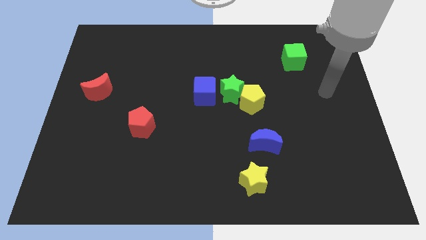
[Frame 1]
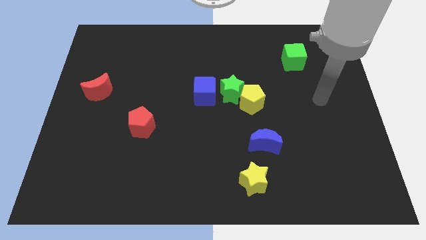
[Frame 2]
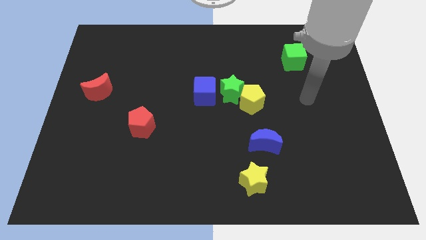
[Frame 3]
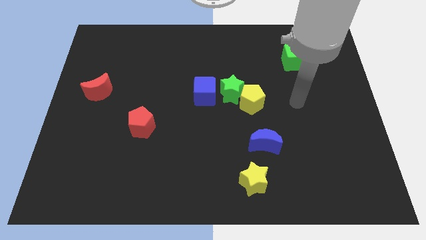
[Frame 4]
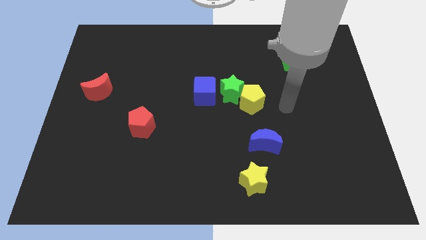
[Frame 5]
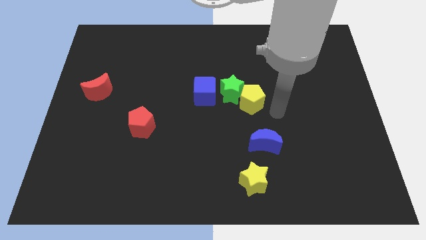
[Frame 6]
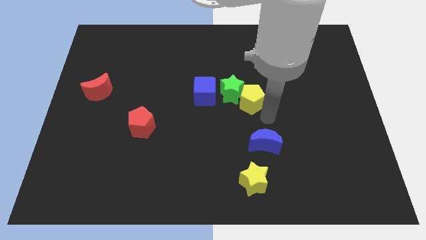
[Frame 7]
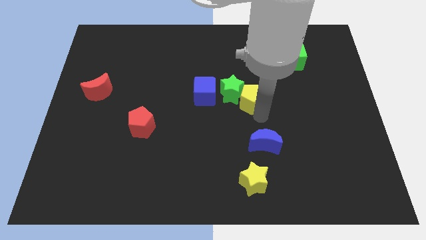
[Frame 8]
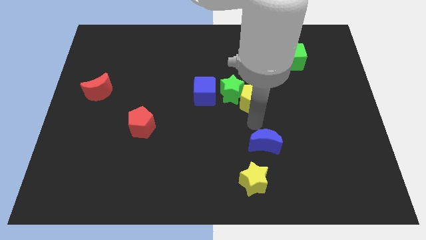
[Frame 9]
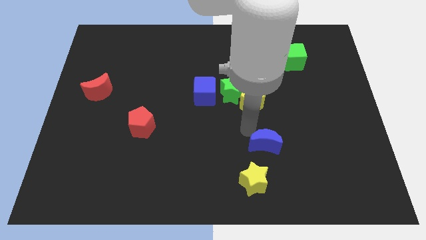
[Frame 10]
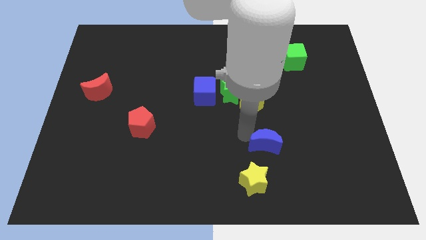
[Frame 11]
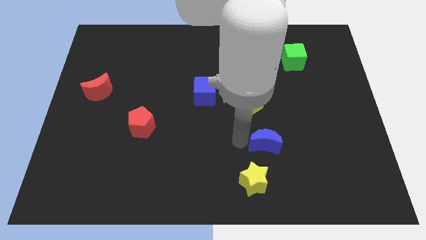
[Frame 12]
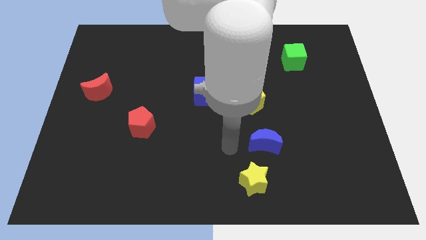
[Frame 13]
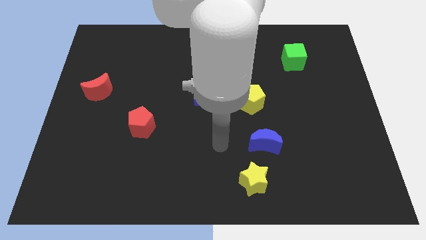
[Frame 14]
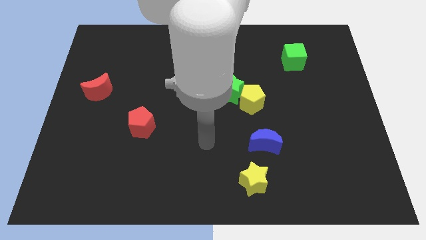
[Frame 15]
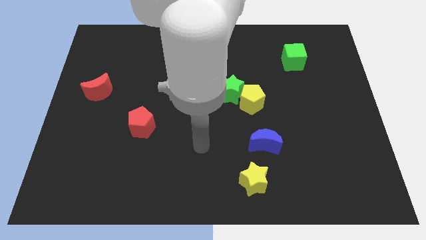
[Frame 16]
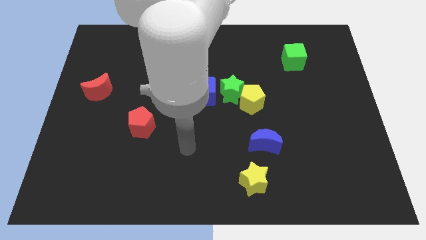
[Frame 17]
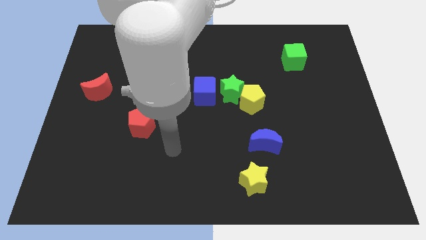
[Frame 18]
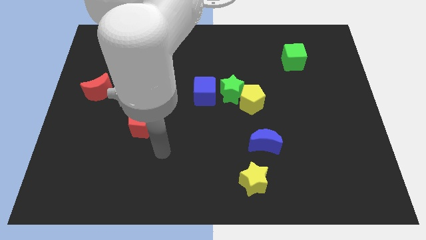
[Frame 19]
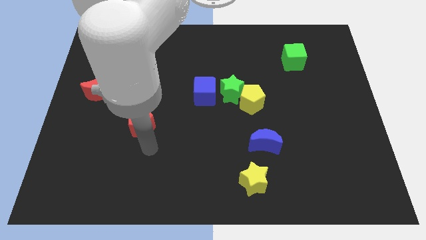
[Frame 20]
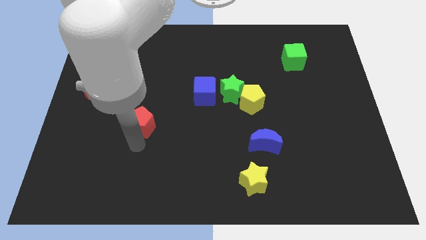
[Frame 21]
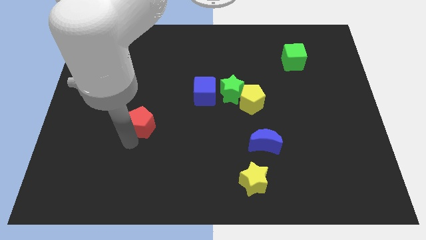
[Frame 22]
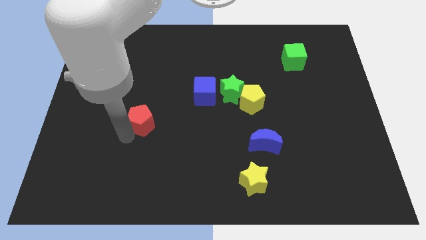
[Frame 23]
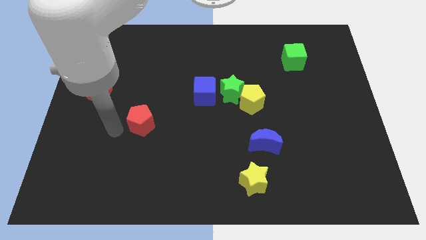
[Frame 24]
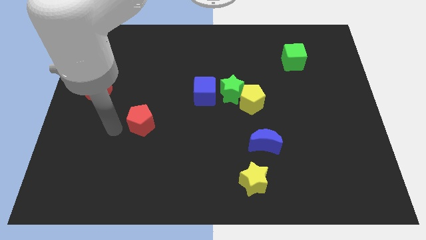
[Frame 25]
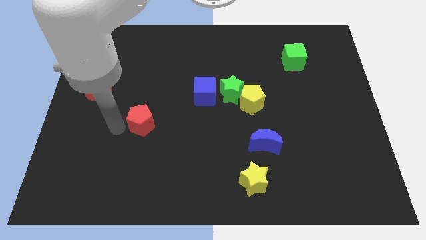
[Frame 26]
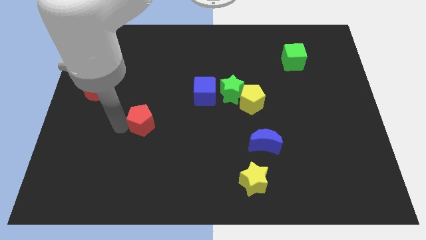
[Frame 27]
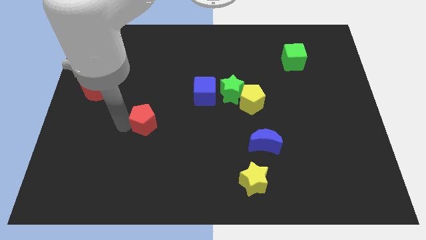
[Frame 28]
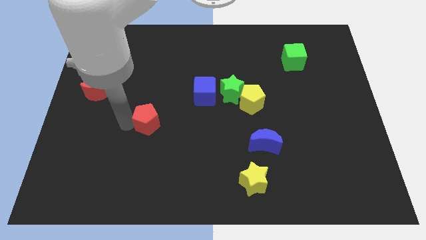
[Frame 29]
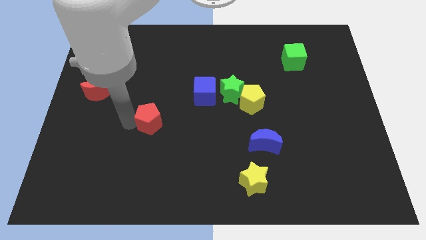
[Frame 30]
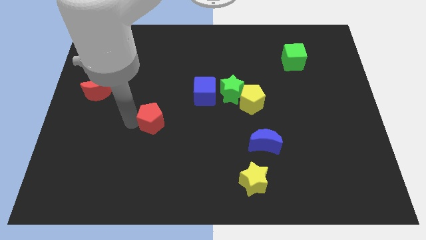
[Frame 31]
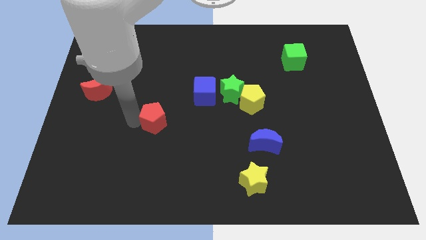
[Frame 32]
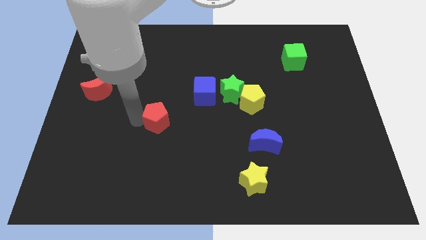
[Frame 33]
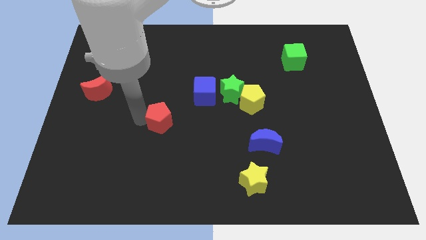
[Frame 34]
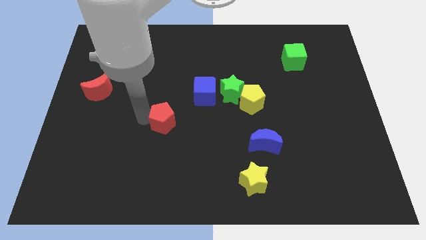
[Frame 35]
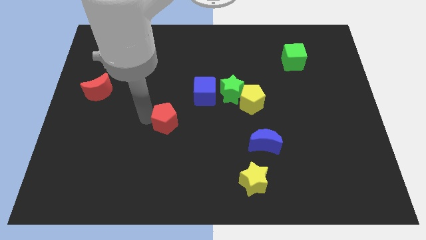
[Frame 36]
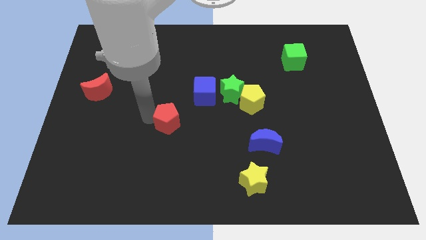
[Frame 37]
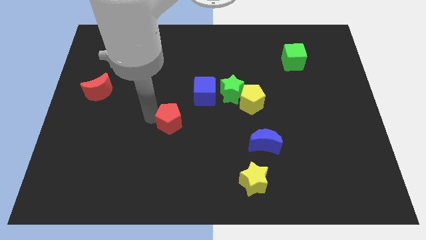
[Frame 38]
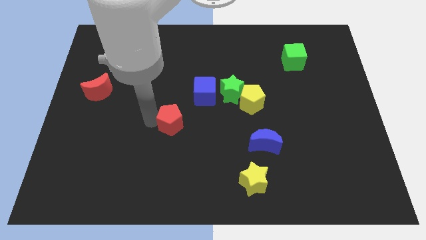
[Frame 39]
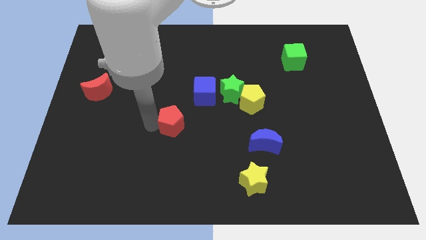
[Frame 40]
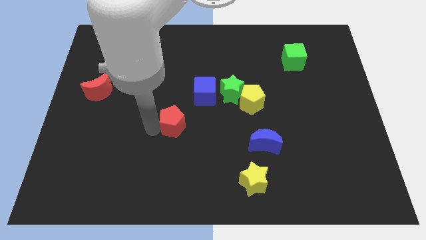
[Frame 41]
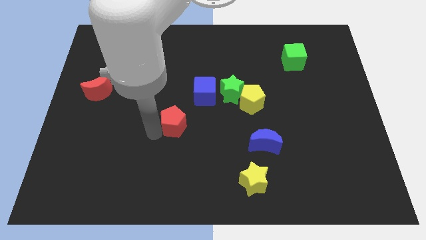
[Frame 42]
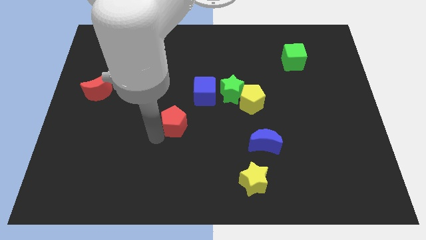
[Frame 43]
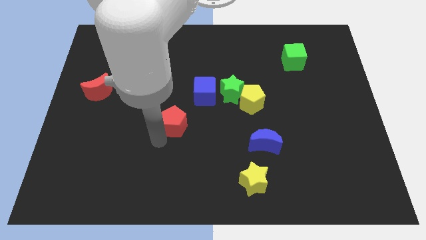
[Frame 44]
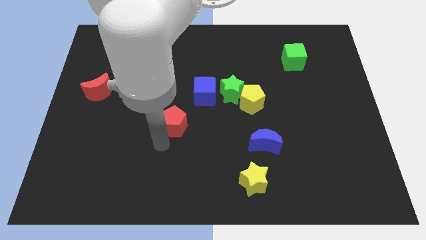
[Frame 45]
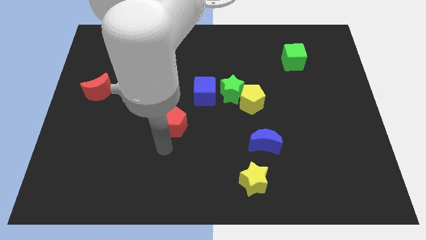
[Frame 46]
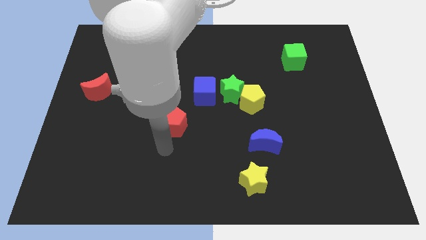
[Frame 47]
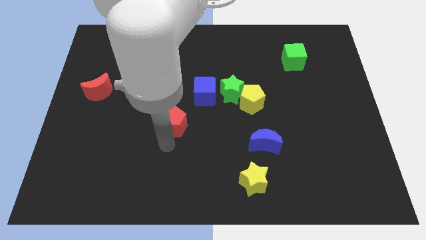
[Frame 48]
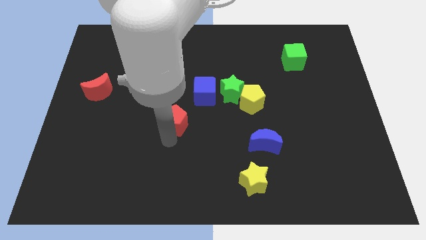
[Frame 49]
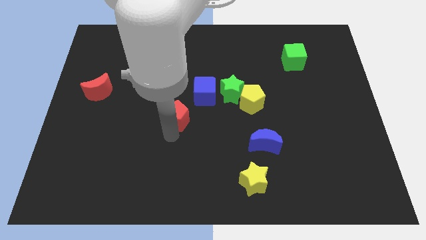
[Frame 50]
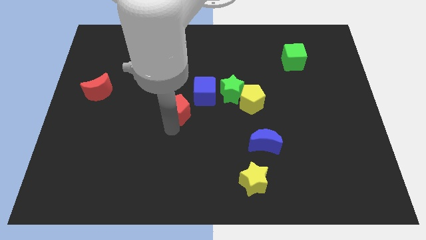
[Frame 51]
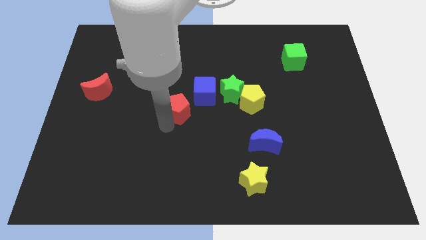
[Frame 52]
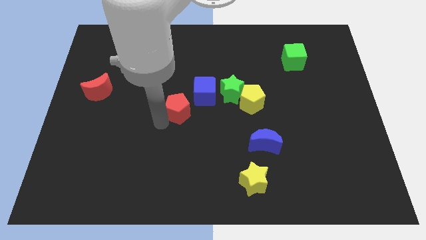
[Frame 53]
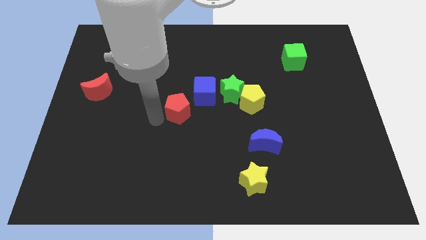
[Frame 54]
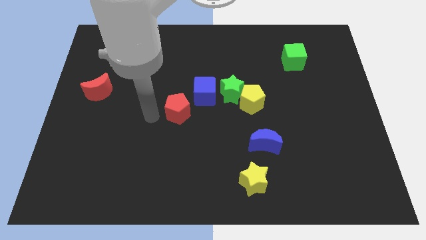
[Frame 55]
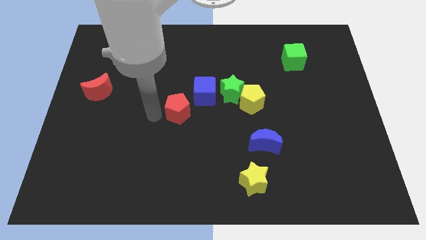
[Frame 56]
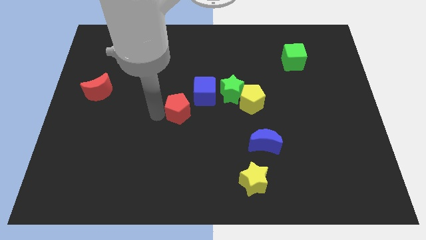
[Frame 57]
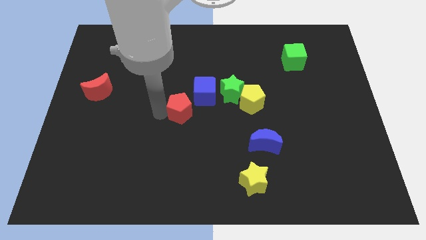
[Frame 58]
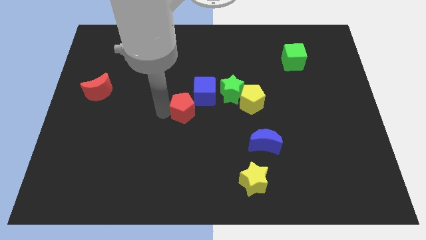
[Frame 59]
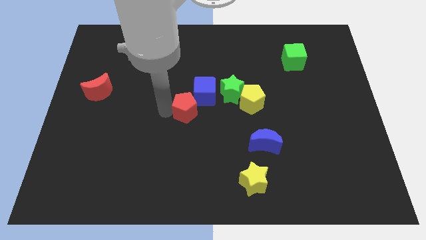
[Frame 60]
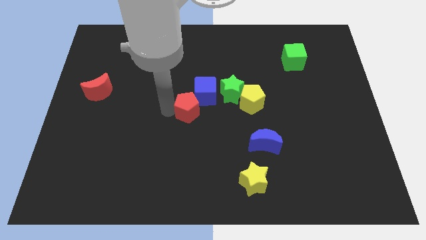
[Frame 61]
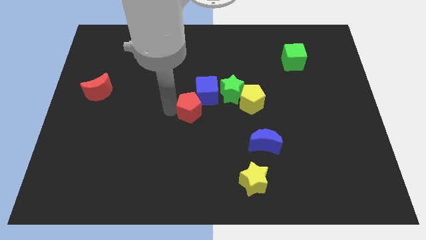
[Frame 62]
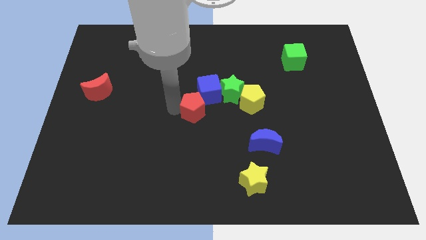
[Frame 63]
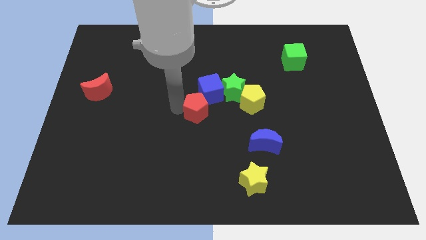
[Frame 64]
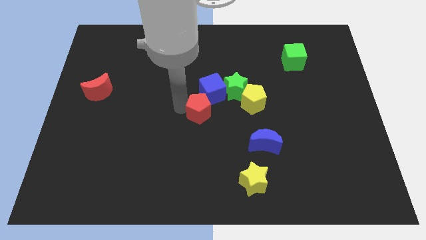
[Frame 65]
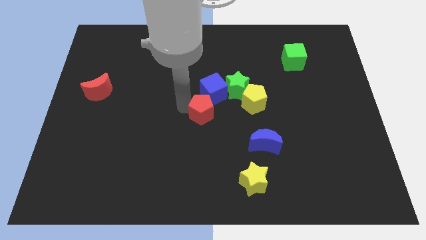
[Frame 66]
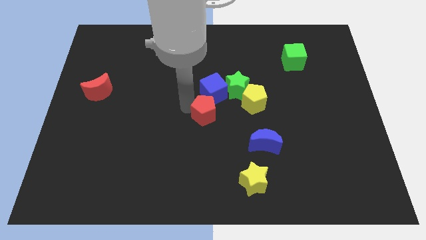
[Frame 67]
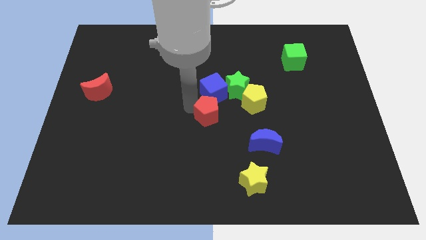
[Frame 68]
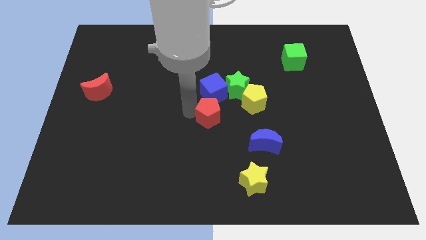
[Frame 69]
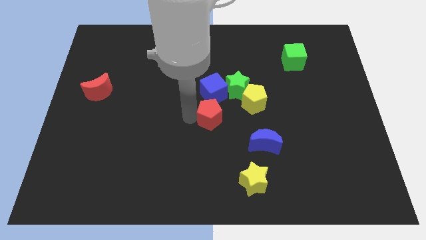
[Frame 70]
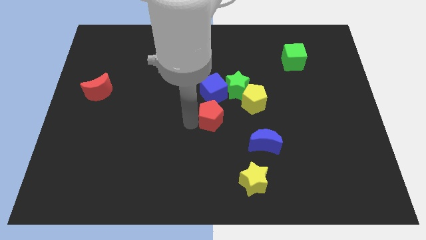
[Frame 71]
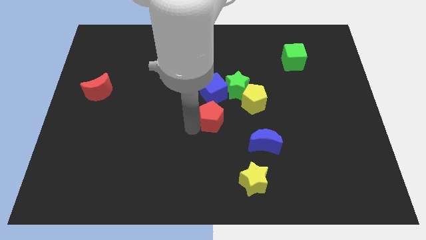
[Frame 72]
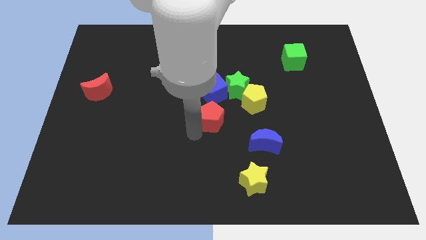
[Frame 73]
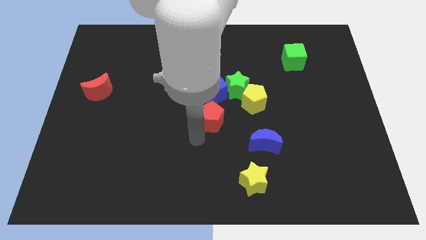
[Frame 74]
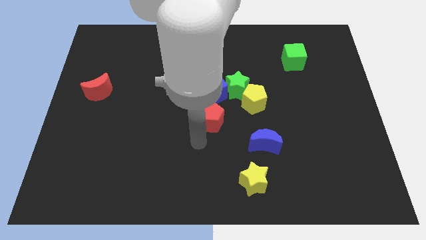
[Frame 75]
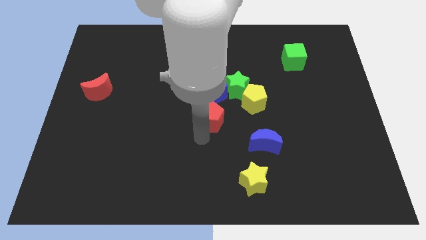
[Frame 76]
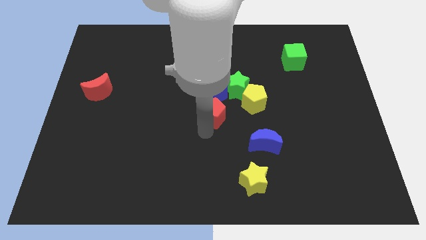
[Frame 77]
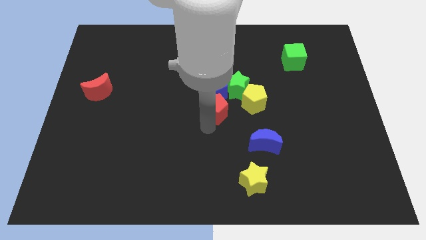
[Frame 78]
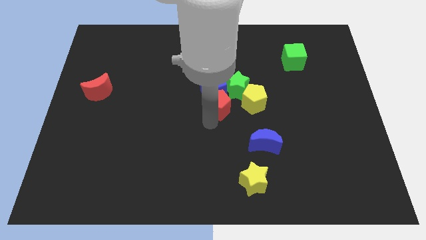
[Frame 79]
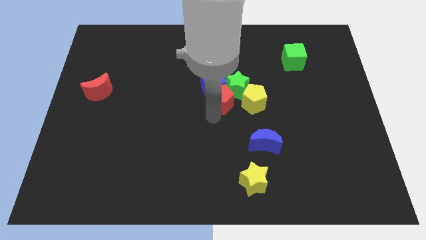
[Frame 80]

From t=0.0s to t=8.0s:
move the red pentagon towards the green star
